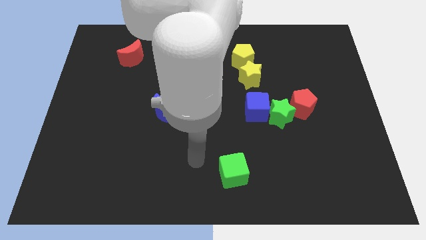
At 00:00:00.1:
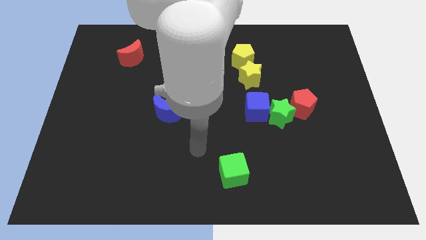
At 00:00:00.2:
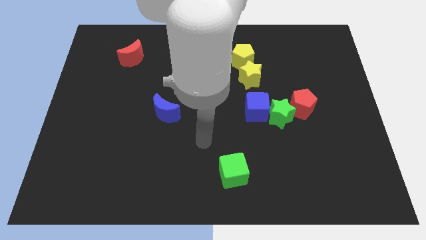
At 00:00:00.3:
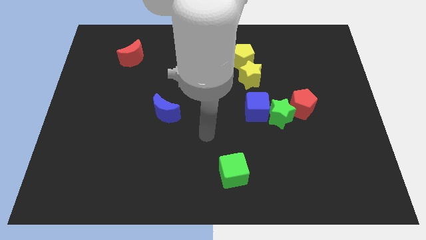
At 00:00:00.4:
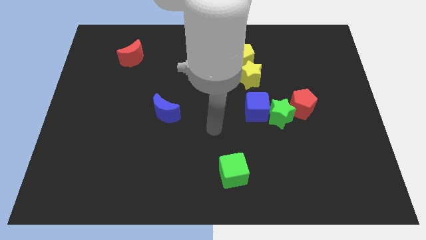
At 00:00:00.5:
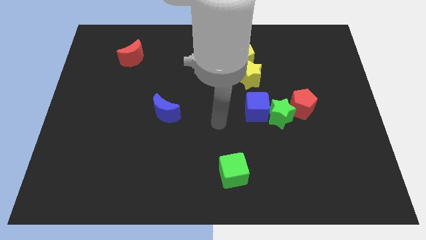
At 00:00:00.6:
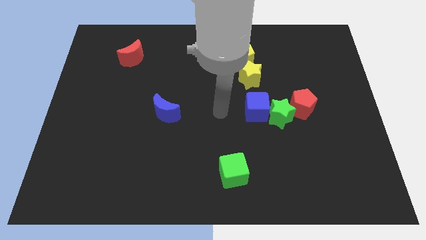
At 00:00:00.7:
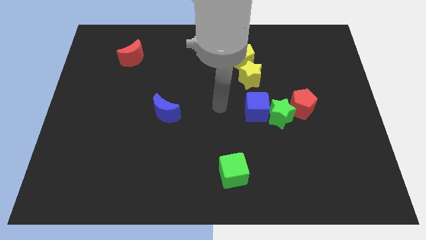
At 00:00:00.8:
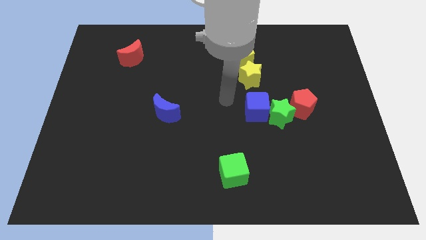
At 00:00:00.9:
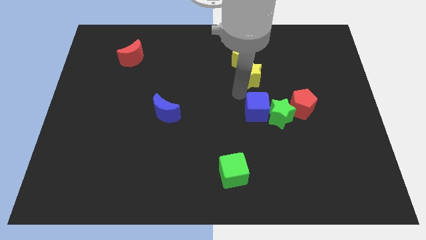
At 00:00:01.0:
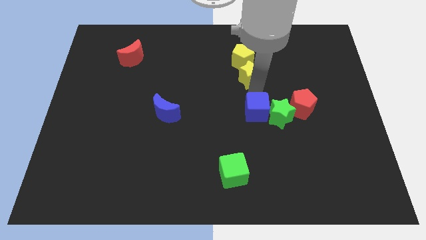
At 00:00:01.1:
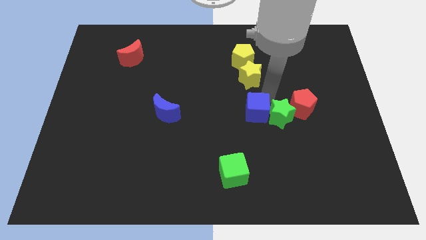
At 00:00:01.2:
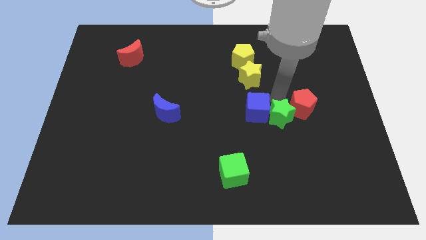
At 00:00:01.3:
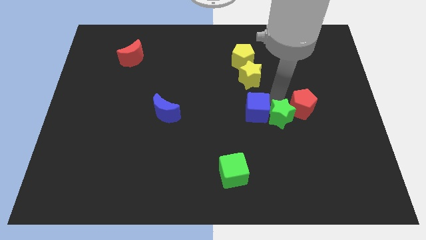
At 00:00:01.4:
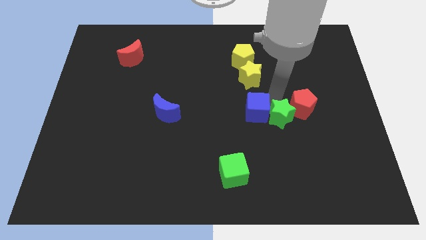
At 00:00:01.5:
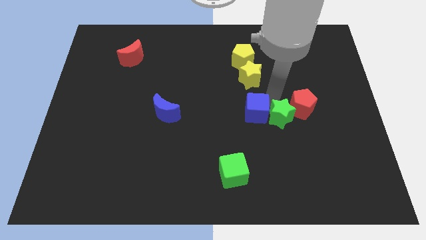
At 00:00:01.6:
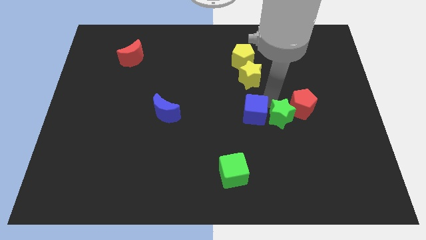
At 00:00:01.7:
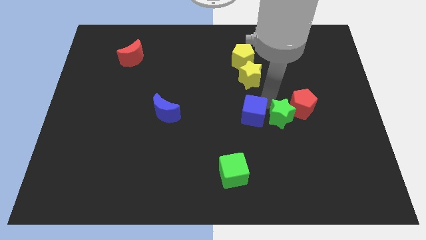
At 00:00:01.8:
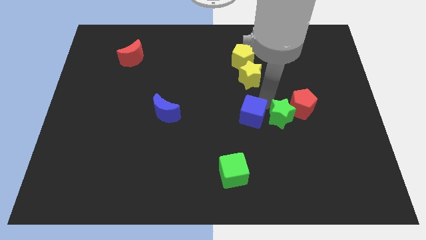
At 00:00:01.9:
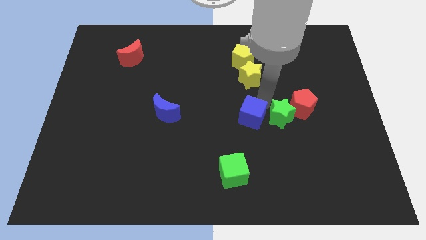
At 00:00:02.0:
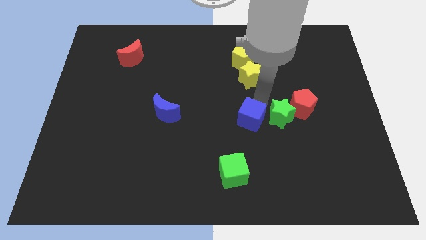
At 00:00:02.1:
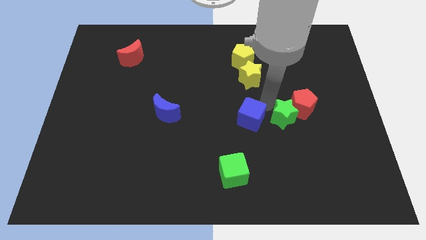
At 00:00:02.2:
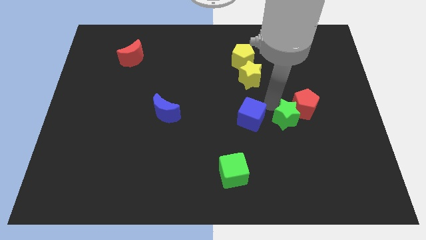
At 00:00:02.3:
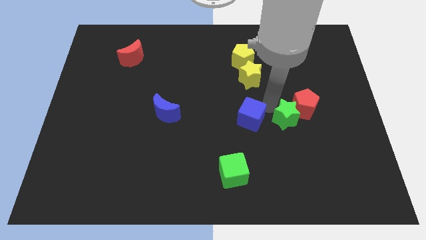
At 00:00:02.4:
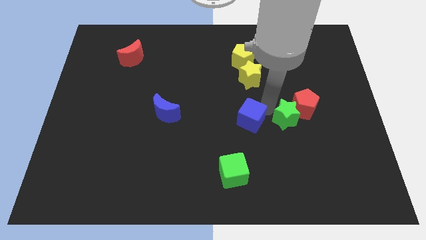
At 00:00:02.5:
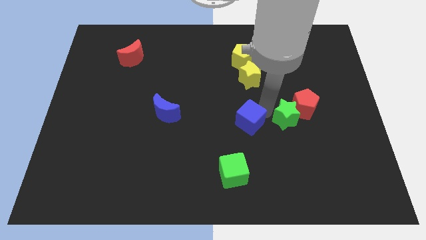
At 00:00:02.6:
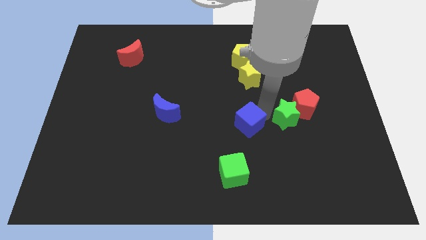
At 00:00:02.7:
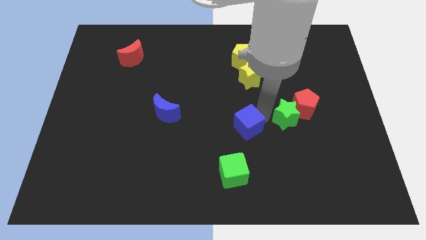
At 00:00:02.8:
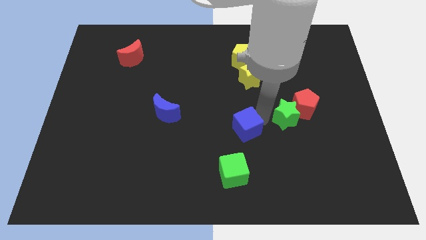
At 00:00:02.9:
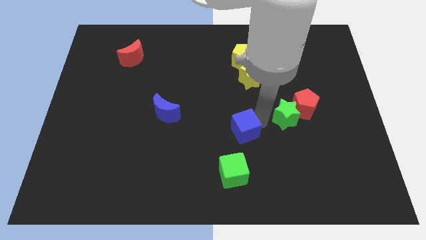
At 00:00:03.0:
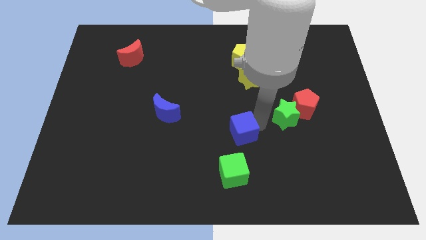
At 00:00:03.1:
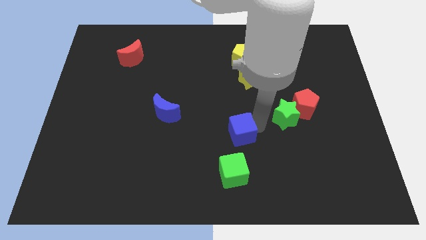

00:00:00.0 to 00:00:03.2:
slightly slide the blue cube downwards and to the left diagonally

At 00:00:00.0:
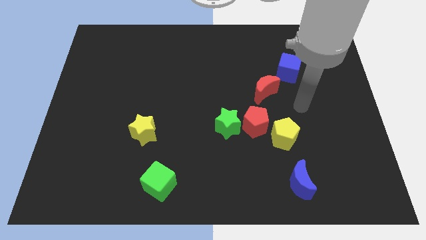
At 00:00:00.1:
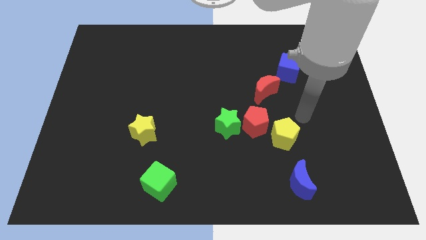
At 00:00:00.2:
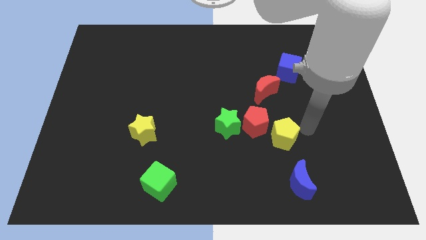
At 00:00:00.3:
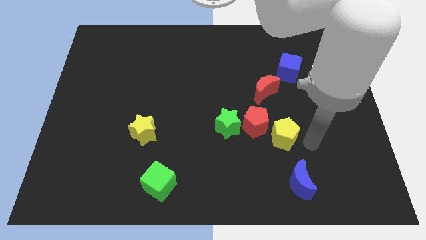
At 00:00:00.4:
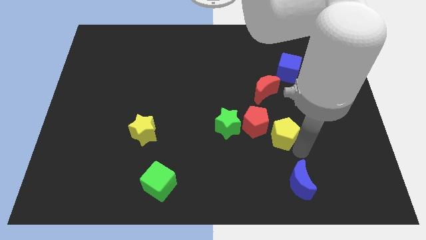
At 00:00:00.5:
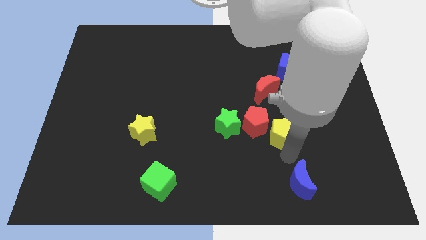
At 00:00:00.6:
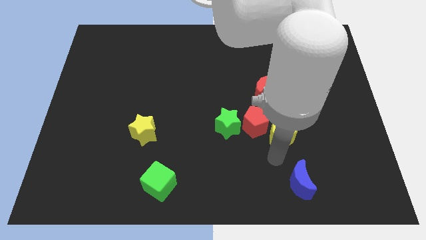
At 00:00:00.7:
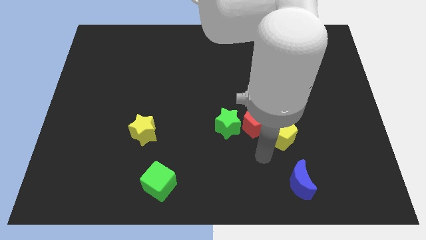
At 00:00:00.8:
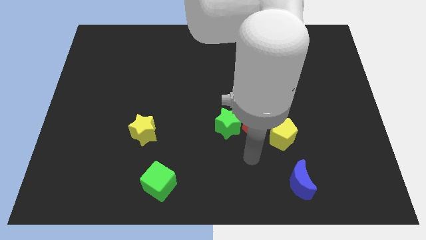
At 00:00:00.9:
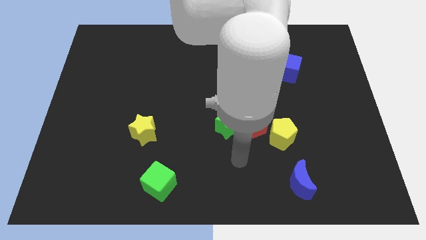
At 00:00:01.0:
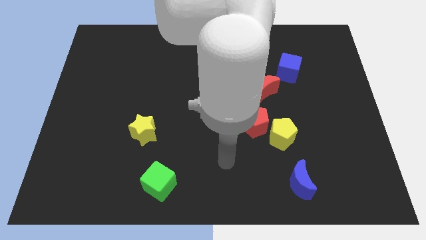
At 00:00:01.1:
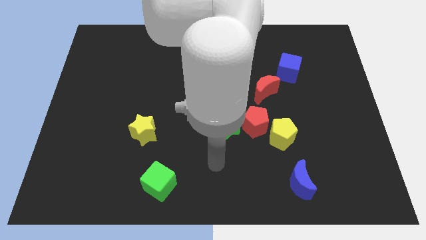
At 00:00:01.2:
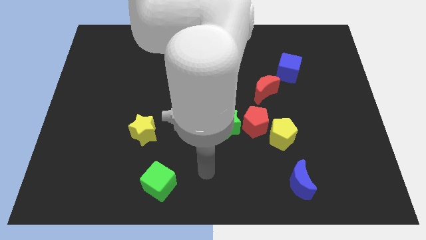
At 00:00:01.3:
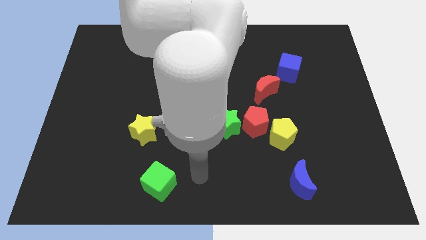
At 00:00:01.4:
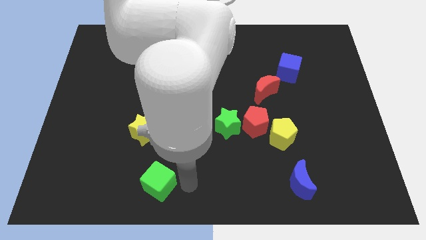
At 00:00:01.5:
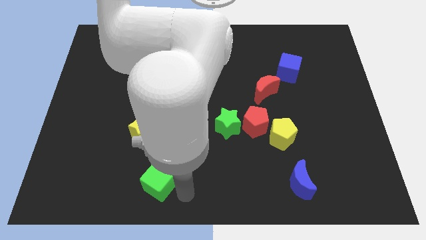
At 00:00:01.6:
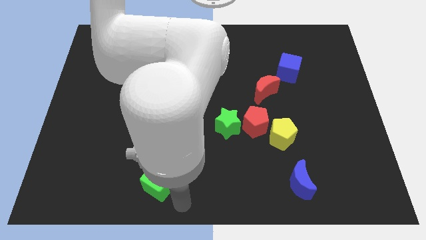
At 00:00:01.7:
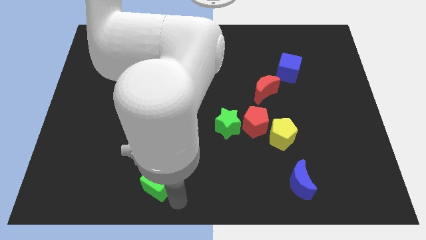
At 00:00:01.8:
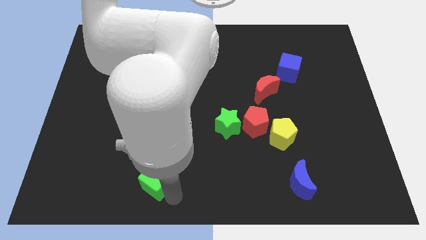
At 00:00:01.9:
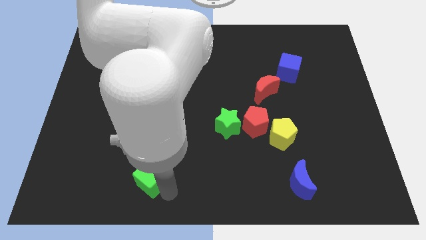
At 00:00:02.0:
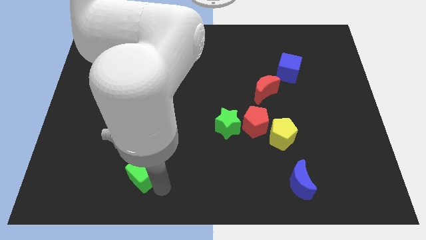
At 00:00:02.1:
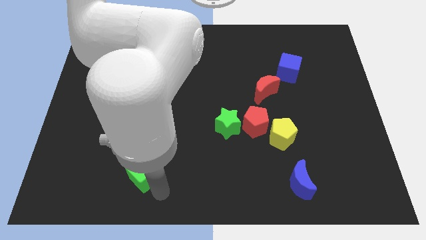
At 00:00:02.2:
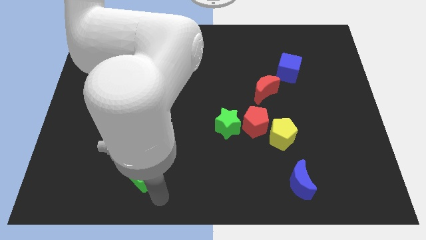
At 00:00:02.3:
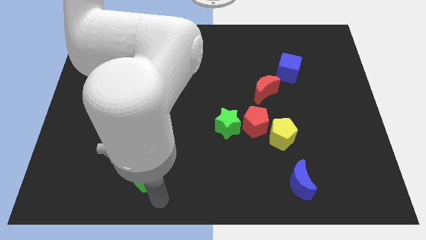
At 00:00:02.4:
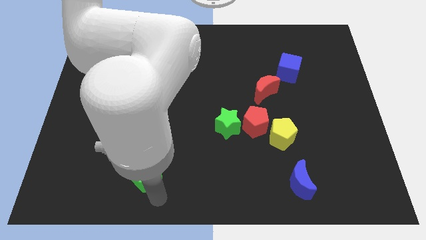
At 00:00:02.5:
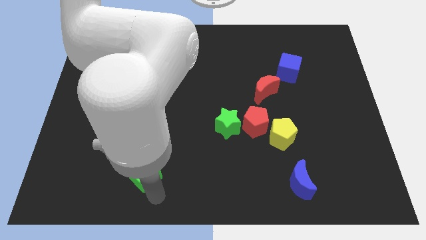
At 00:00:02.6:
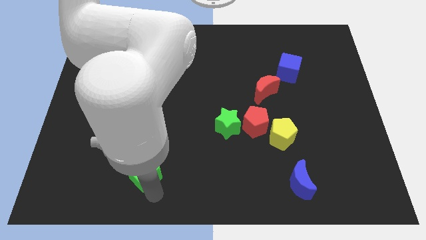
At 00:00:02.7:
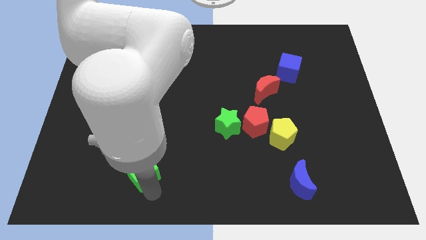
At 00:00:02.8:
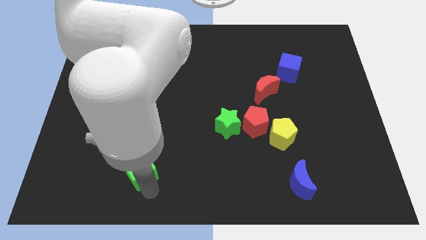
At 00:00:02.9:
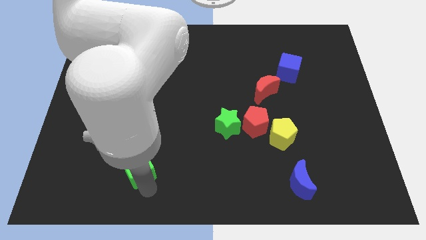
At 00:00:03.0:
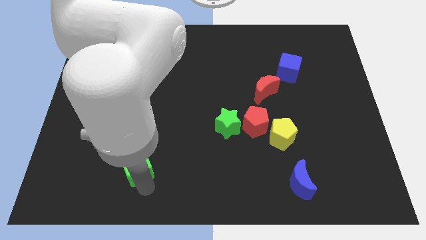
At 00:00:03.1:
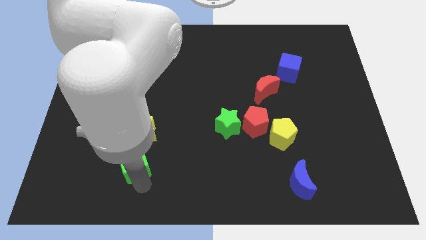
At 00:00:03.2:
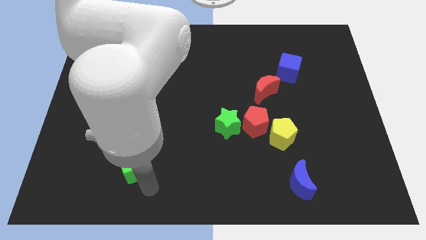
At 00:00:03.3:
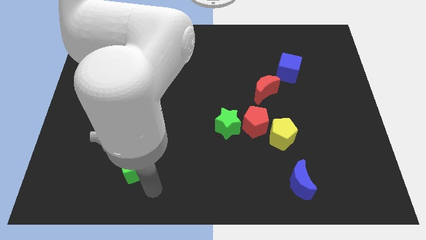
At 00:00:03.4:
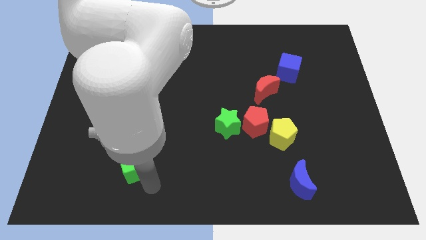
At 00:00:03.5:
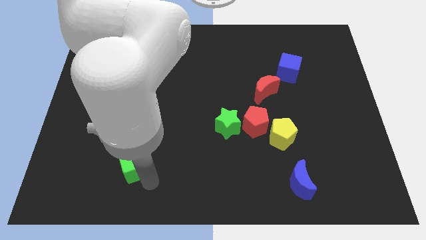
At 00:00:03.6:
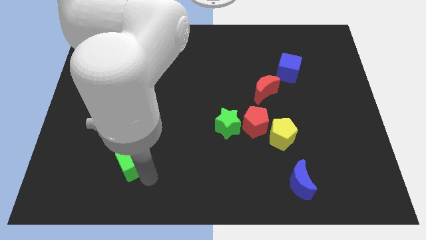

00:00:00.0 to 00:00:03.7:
slightly push the green cube diagonally upwards and left

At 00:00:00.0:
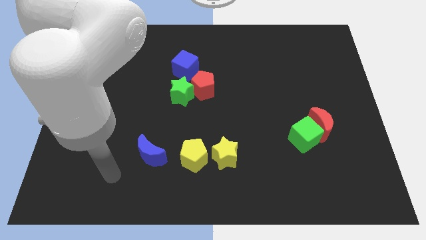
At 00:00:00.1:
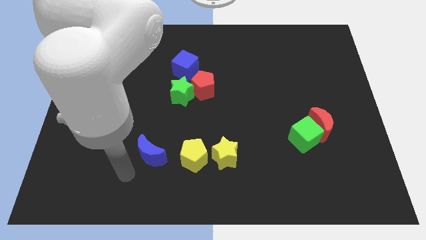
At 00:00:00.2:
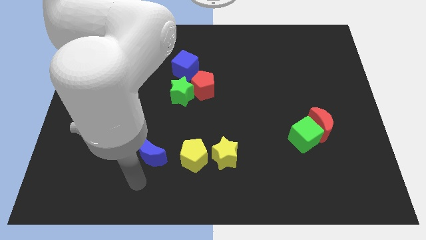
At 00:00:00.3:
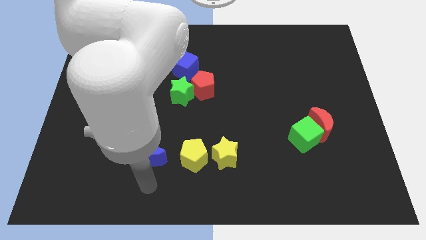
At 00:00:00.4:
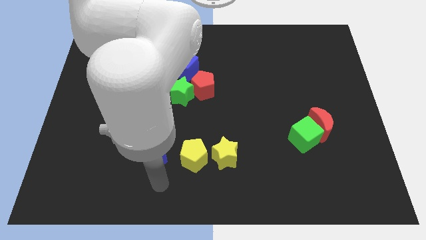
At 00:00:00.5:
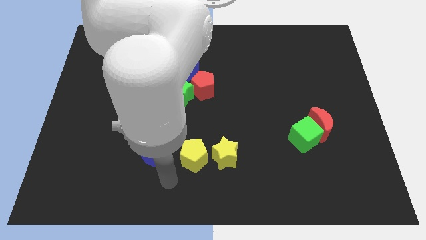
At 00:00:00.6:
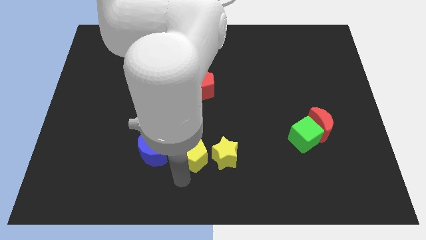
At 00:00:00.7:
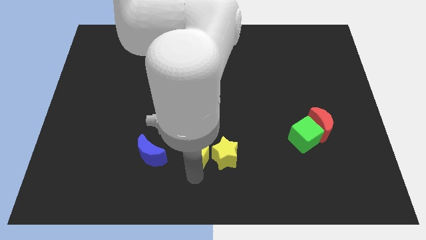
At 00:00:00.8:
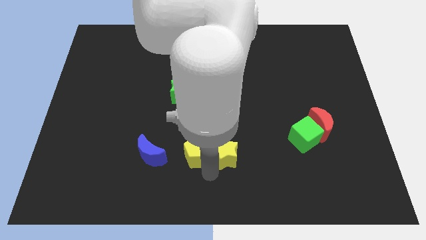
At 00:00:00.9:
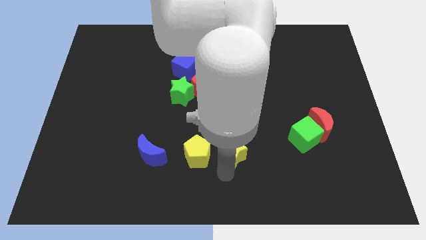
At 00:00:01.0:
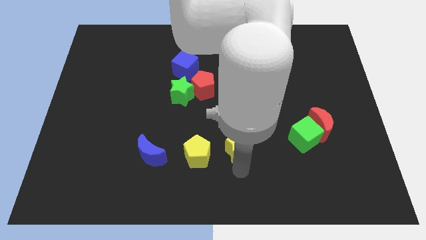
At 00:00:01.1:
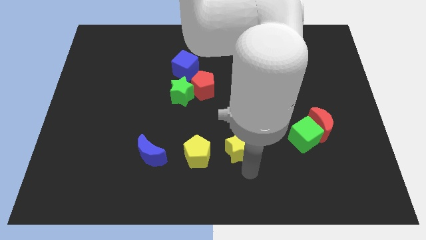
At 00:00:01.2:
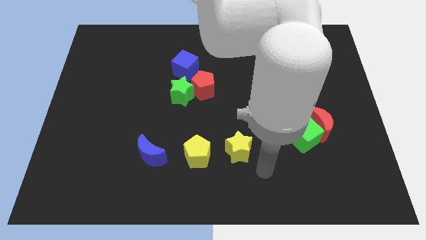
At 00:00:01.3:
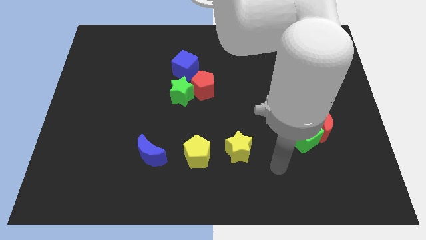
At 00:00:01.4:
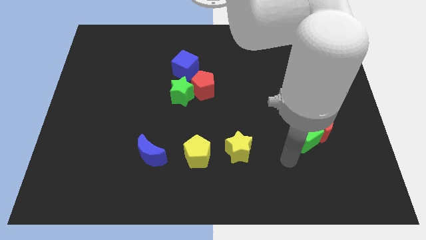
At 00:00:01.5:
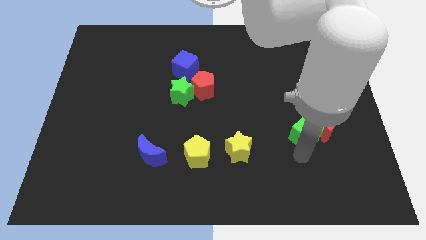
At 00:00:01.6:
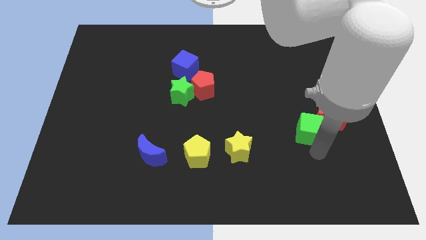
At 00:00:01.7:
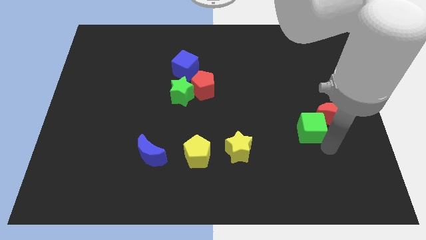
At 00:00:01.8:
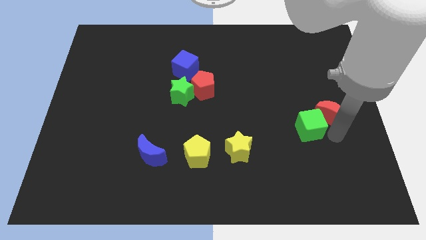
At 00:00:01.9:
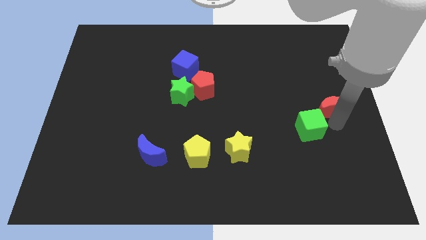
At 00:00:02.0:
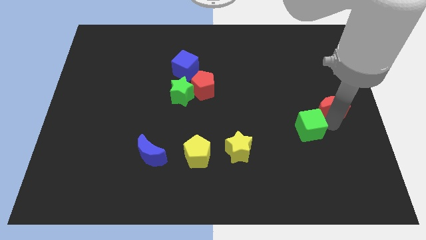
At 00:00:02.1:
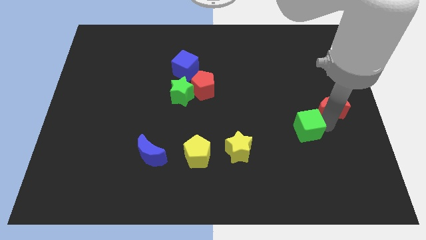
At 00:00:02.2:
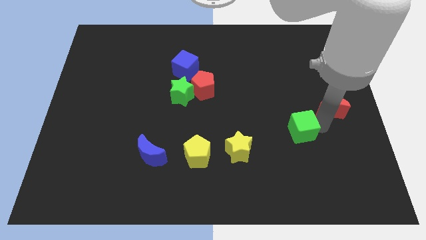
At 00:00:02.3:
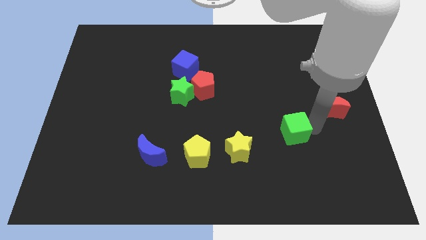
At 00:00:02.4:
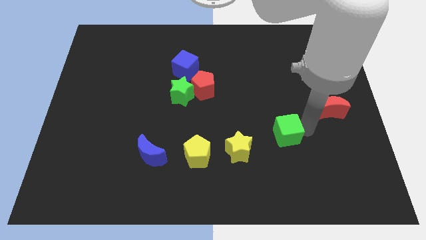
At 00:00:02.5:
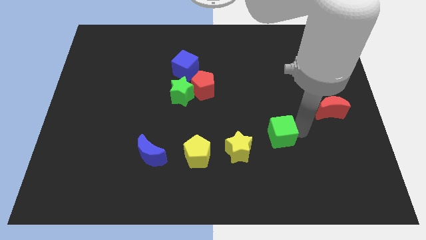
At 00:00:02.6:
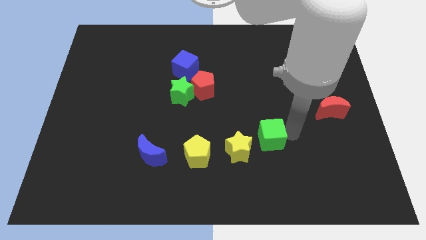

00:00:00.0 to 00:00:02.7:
push the green cube left slightly
